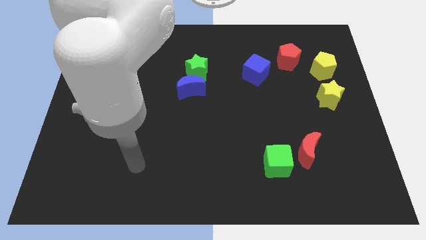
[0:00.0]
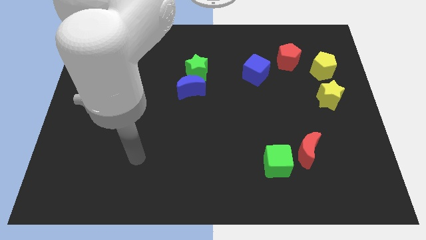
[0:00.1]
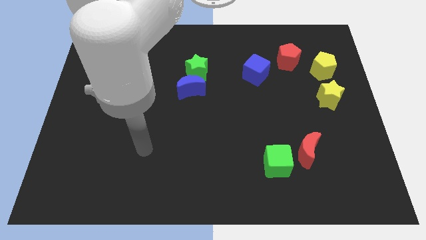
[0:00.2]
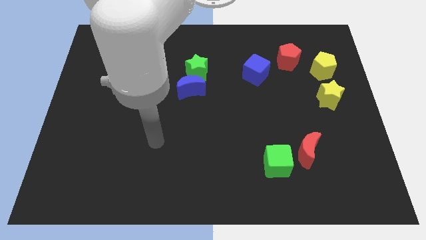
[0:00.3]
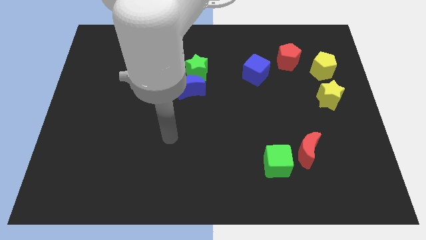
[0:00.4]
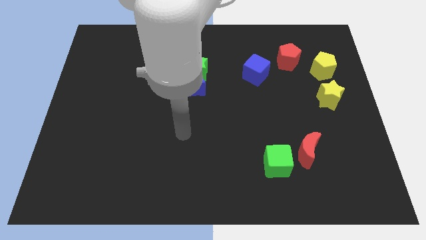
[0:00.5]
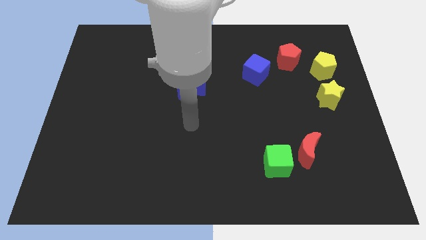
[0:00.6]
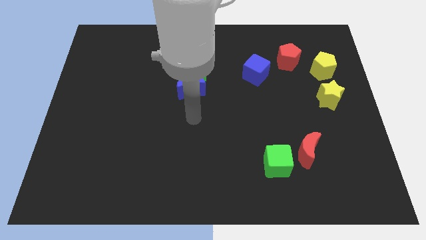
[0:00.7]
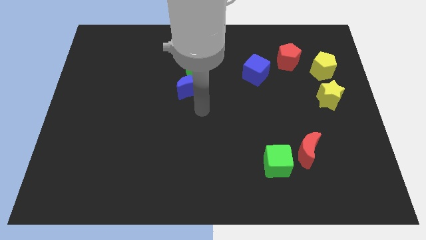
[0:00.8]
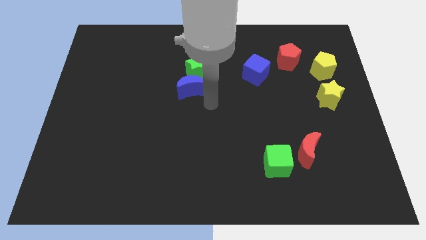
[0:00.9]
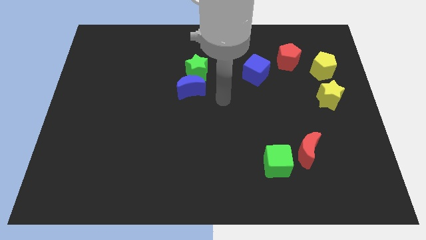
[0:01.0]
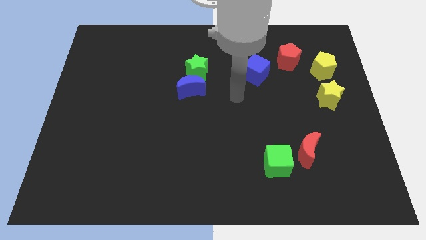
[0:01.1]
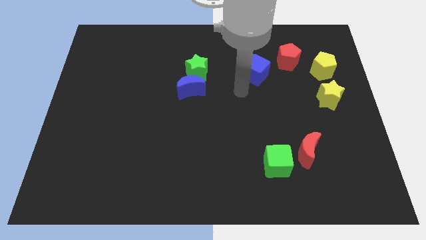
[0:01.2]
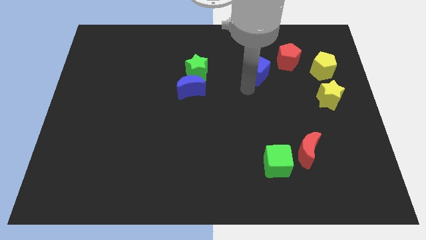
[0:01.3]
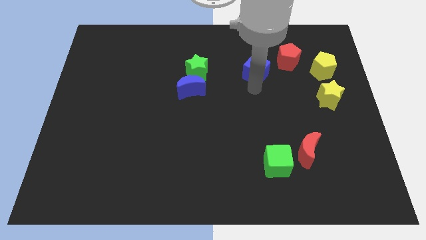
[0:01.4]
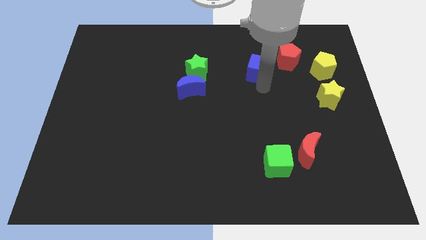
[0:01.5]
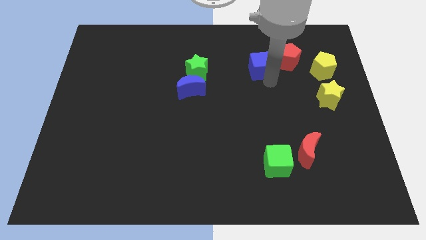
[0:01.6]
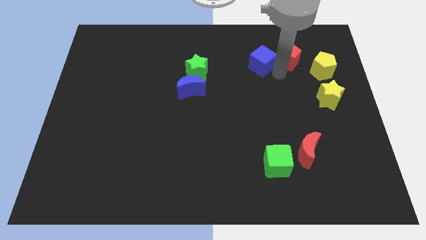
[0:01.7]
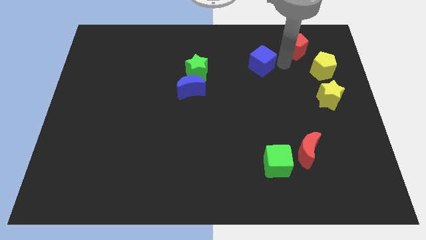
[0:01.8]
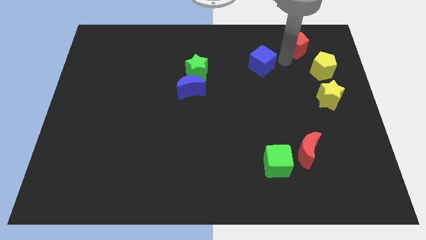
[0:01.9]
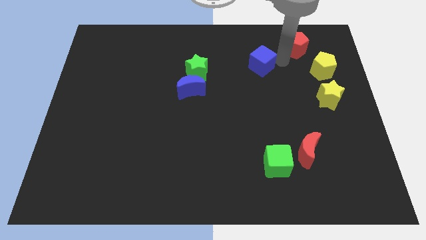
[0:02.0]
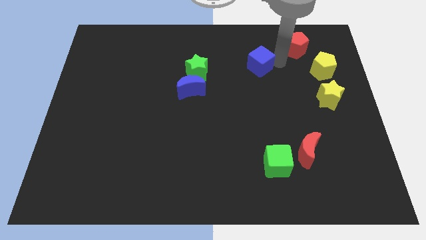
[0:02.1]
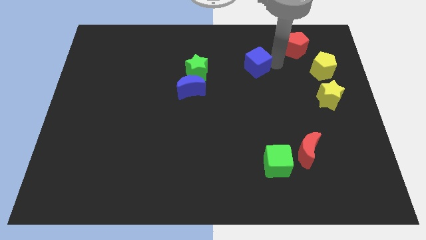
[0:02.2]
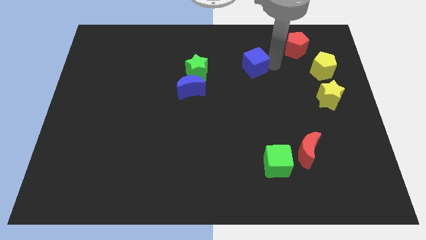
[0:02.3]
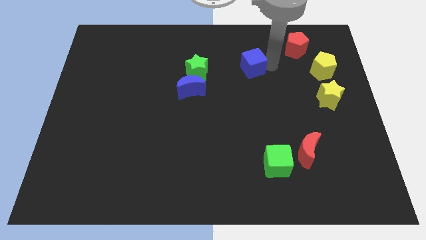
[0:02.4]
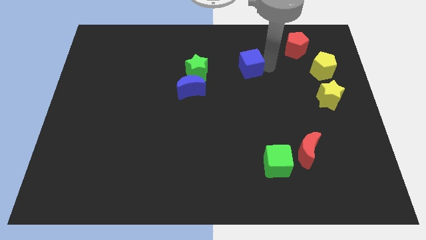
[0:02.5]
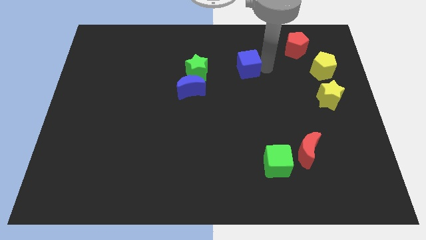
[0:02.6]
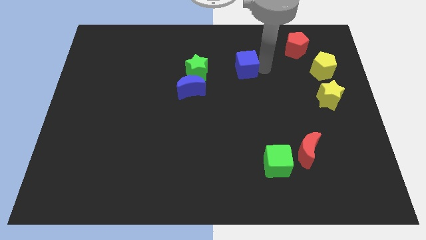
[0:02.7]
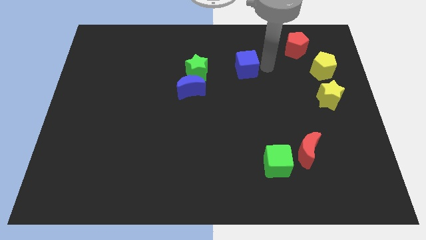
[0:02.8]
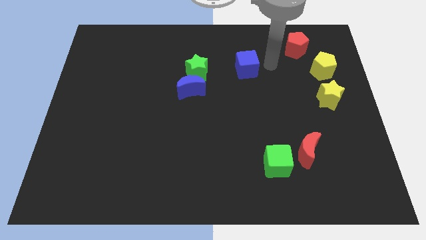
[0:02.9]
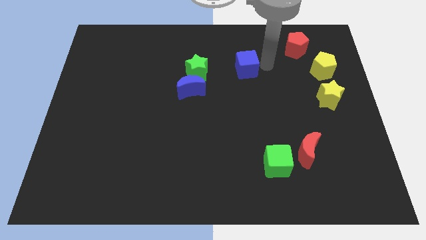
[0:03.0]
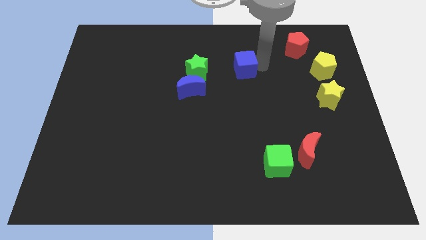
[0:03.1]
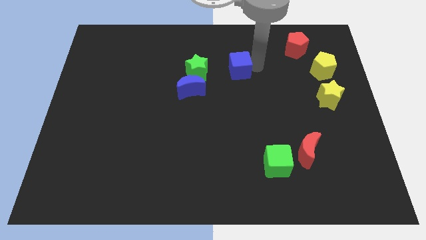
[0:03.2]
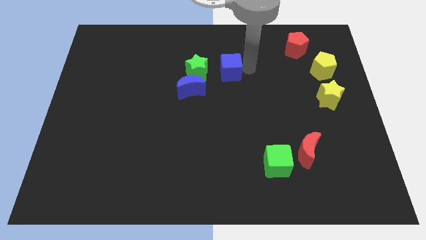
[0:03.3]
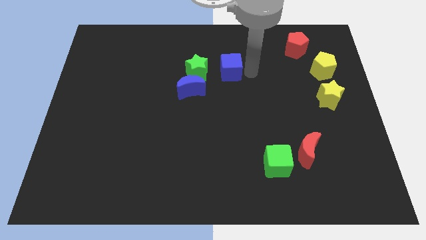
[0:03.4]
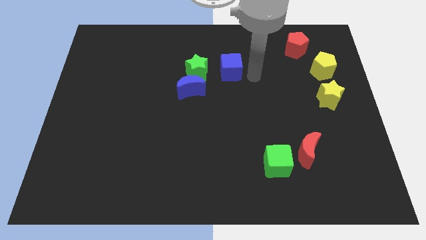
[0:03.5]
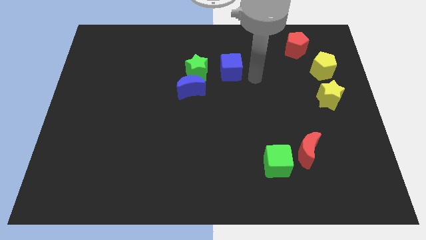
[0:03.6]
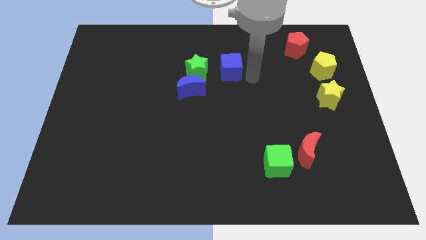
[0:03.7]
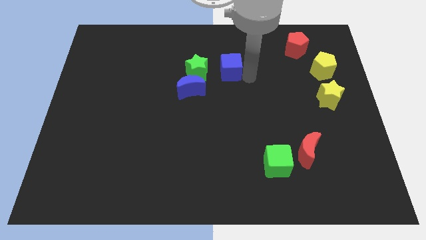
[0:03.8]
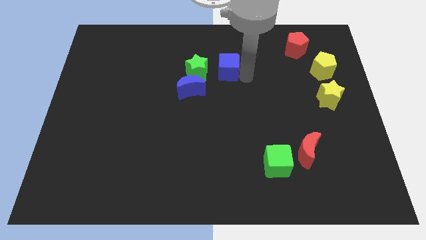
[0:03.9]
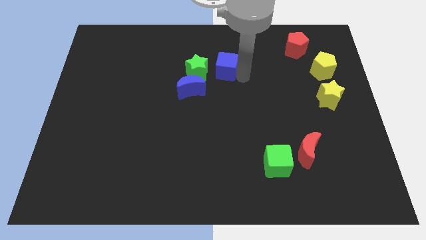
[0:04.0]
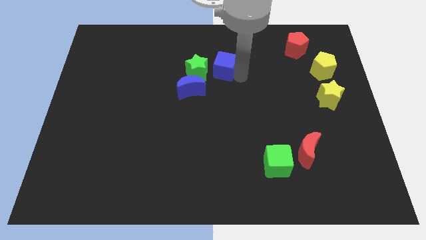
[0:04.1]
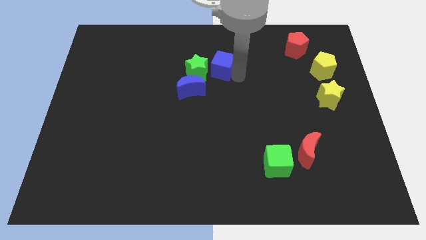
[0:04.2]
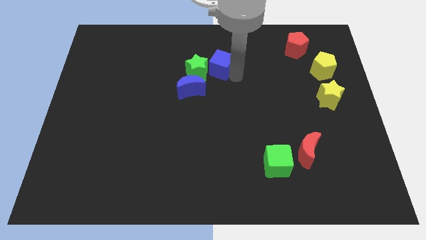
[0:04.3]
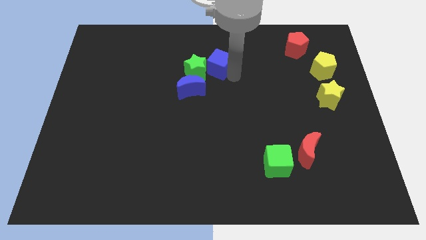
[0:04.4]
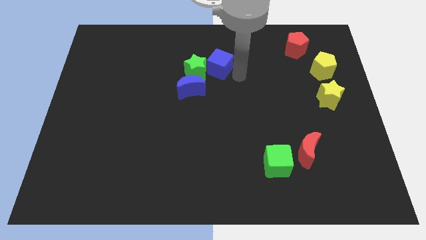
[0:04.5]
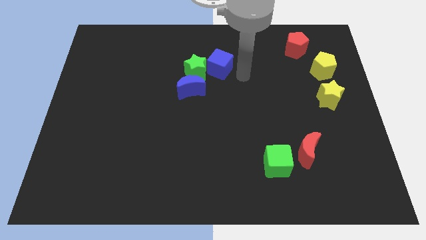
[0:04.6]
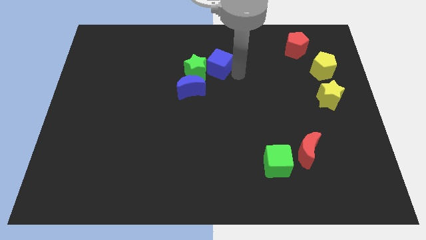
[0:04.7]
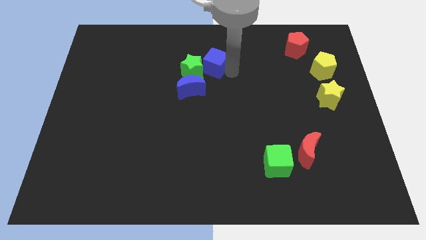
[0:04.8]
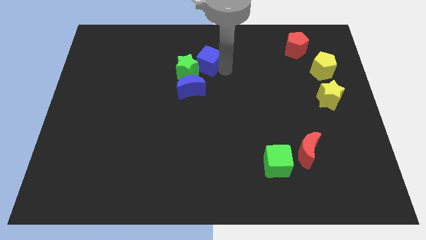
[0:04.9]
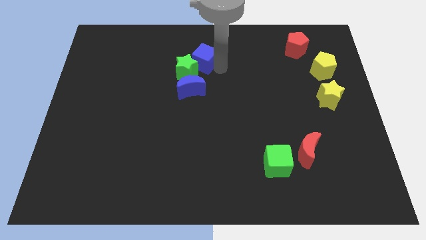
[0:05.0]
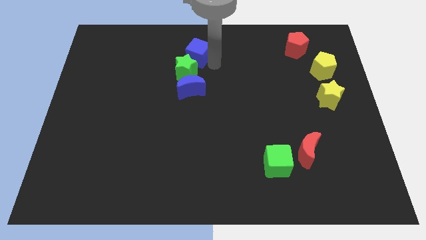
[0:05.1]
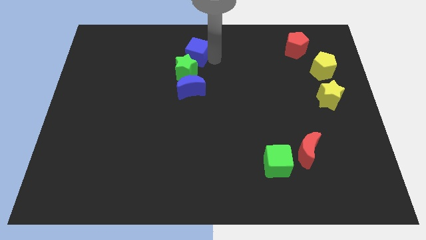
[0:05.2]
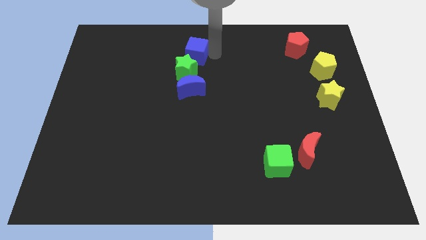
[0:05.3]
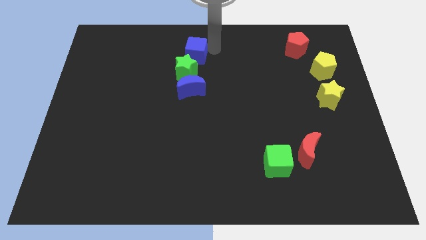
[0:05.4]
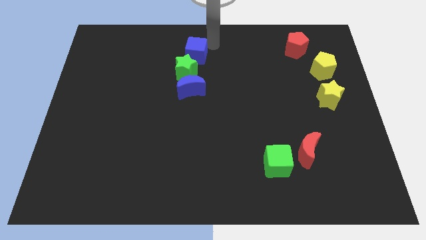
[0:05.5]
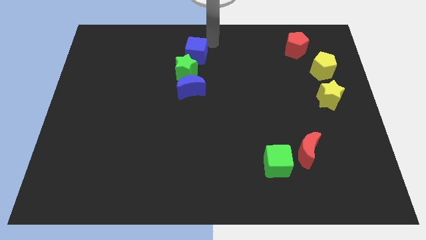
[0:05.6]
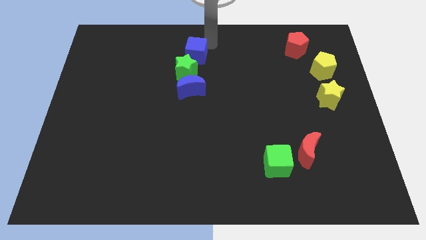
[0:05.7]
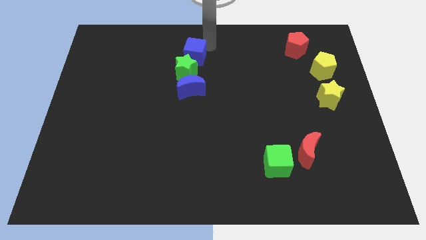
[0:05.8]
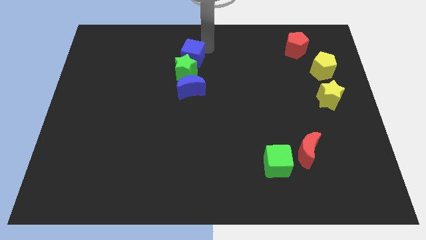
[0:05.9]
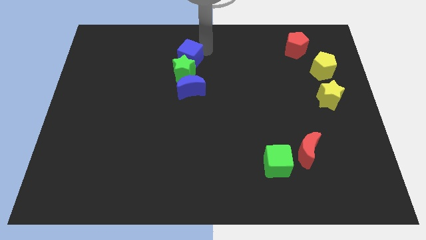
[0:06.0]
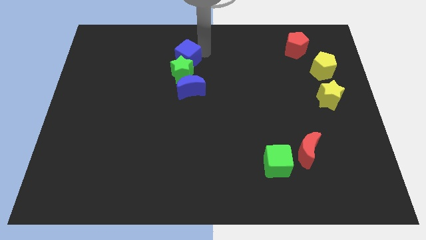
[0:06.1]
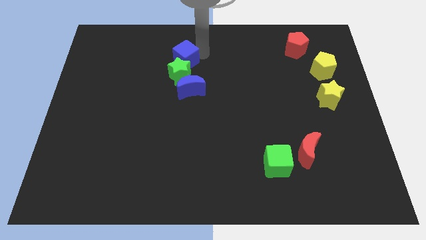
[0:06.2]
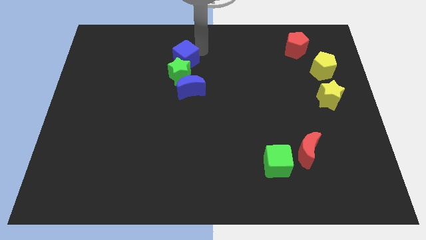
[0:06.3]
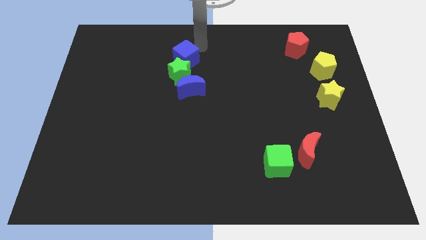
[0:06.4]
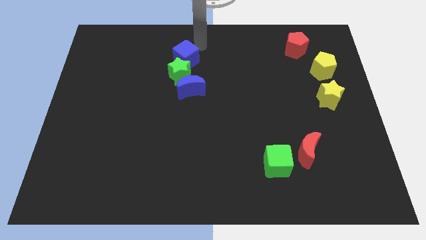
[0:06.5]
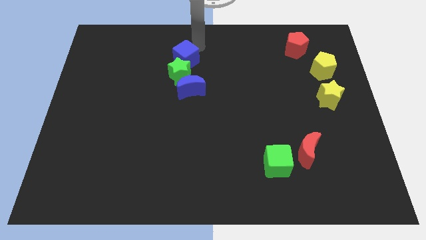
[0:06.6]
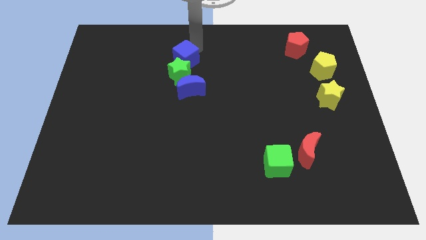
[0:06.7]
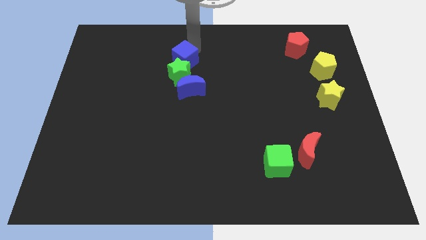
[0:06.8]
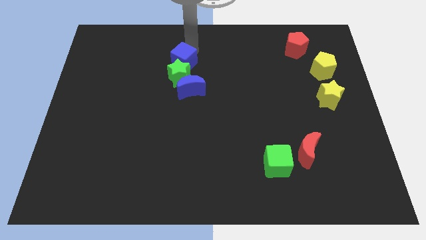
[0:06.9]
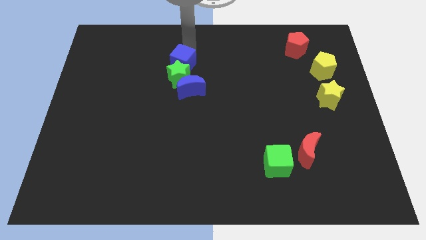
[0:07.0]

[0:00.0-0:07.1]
slide the blue cube to the top left side of the blue moon

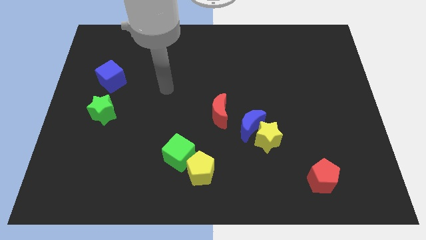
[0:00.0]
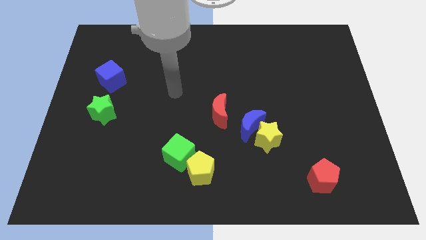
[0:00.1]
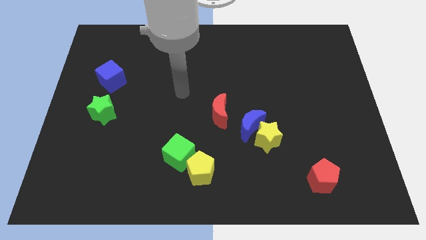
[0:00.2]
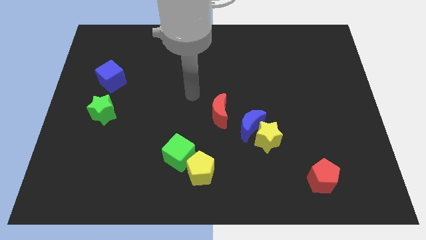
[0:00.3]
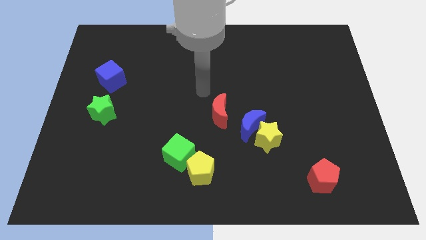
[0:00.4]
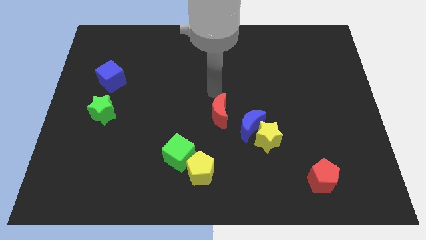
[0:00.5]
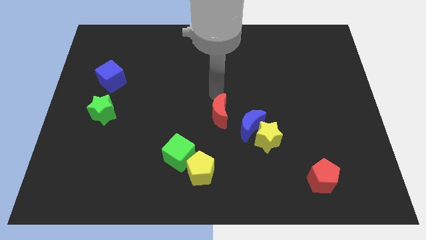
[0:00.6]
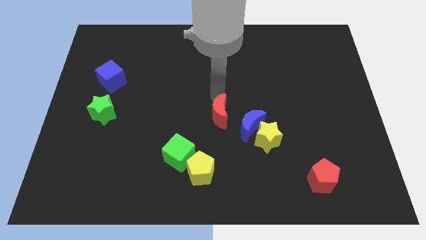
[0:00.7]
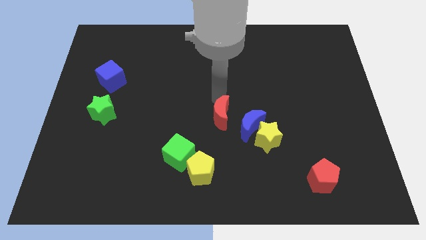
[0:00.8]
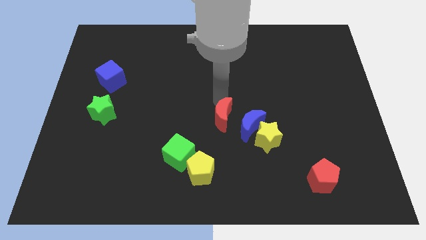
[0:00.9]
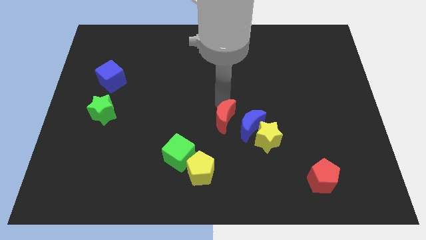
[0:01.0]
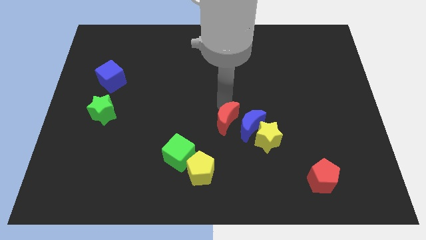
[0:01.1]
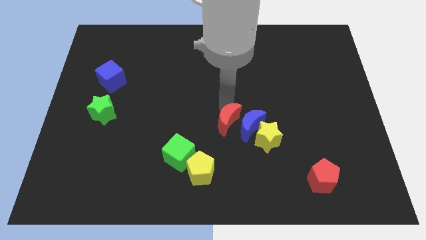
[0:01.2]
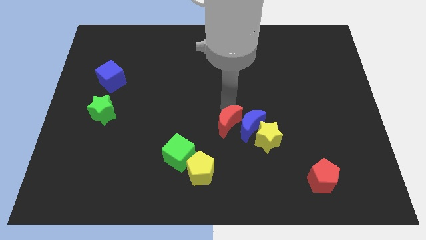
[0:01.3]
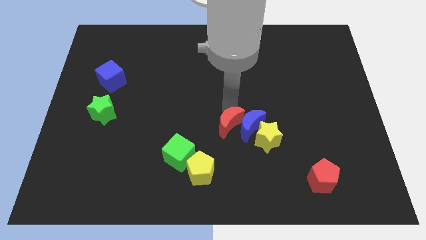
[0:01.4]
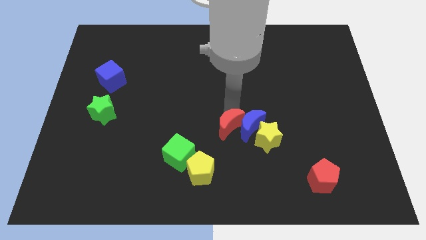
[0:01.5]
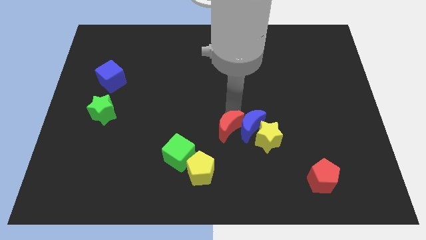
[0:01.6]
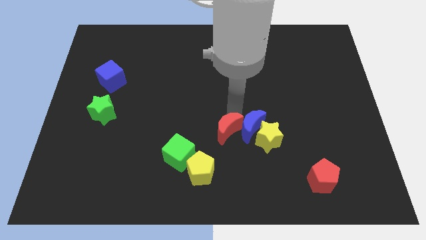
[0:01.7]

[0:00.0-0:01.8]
put the red moon to the top right side of the yellow pentagon
